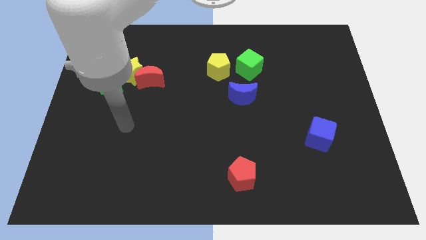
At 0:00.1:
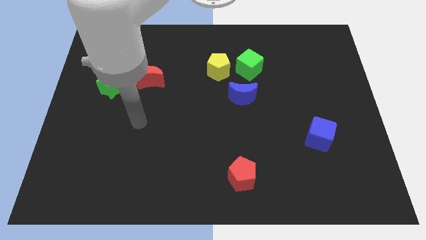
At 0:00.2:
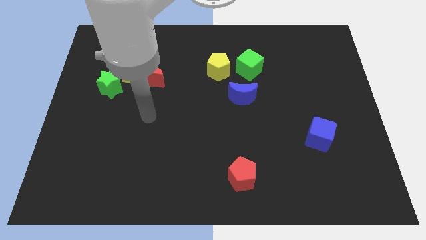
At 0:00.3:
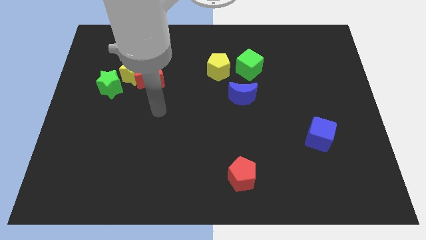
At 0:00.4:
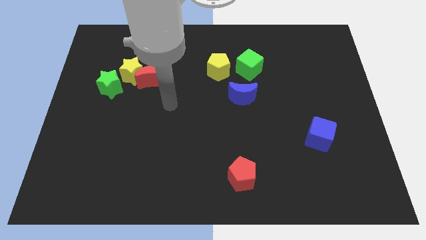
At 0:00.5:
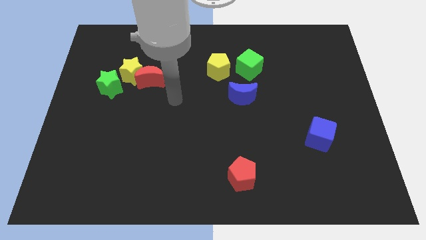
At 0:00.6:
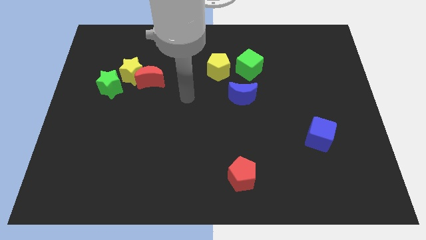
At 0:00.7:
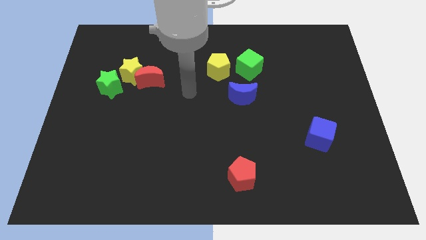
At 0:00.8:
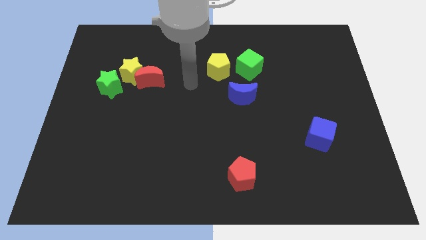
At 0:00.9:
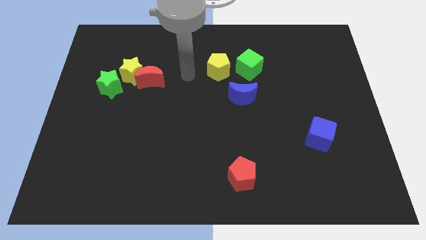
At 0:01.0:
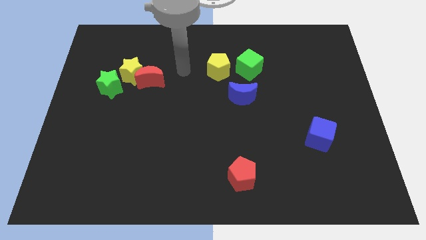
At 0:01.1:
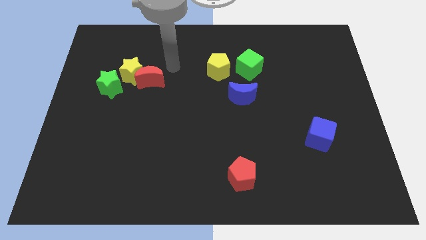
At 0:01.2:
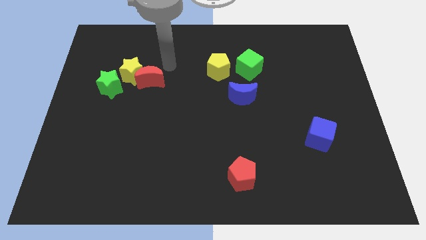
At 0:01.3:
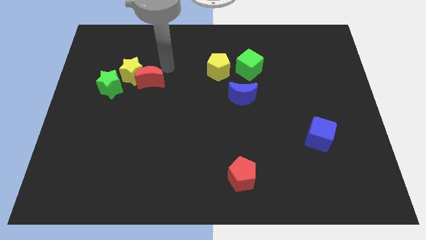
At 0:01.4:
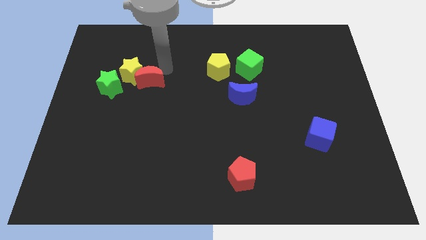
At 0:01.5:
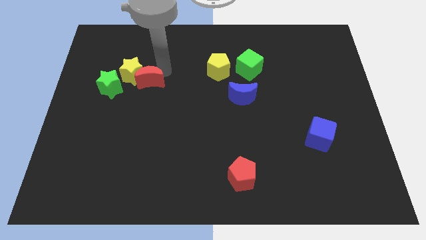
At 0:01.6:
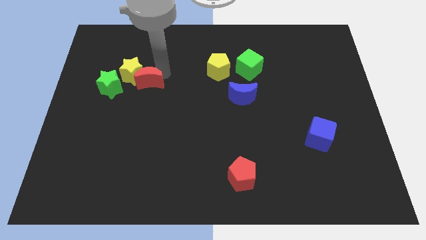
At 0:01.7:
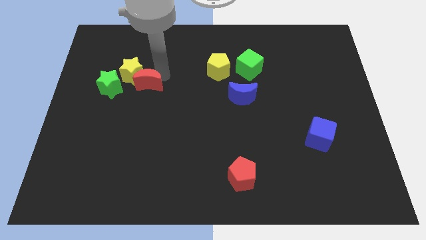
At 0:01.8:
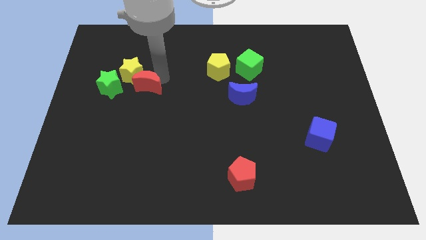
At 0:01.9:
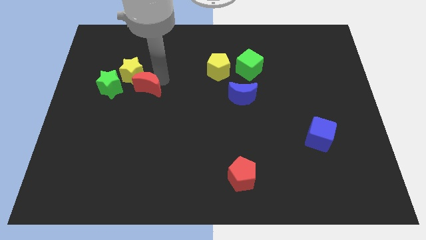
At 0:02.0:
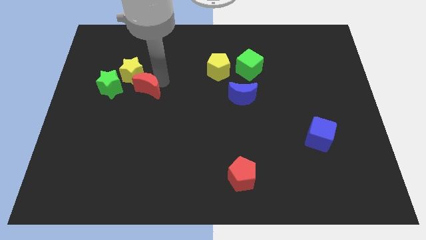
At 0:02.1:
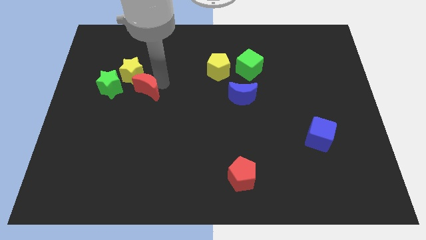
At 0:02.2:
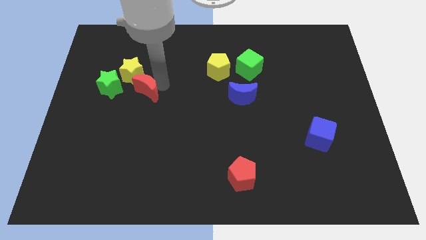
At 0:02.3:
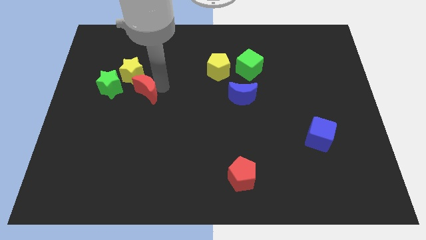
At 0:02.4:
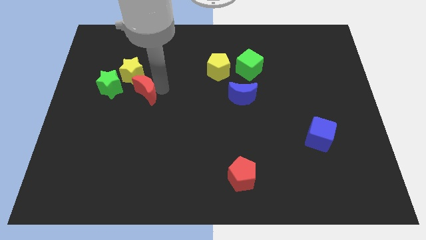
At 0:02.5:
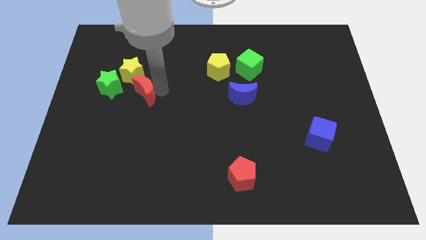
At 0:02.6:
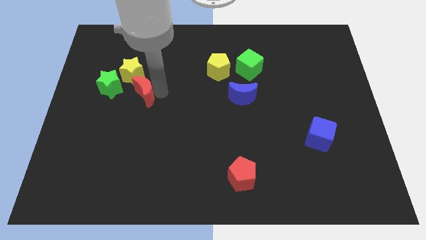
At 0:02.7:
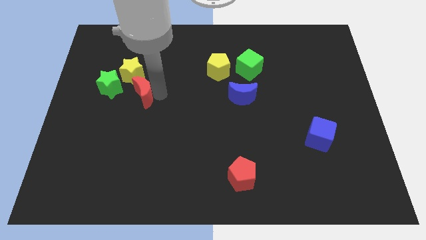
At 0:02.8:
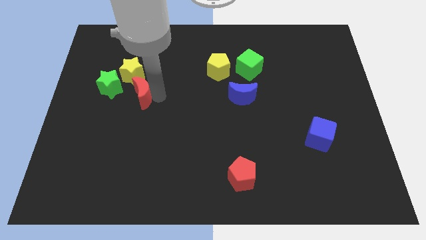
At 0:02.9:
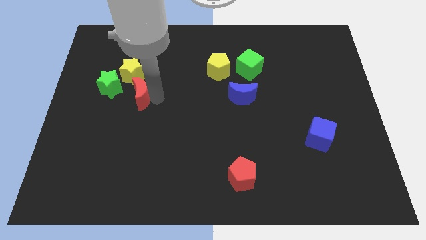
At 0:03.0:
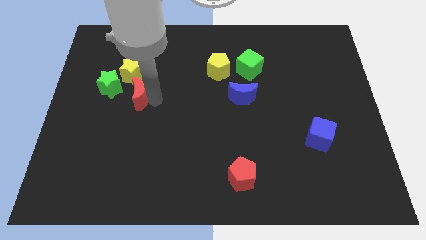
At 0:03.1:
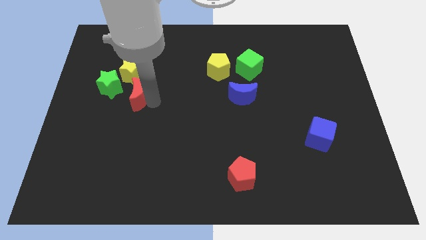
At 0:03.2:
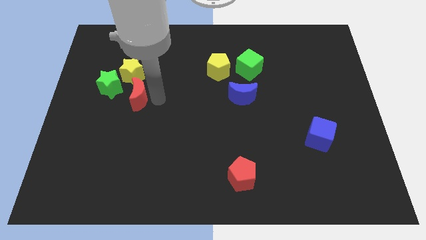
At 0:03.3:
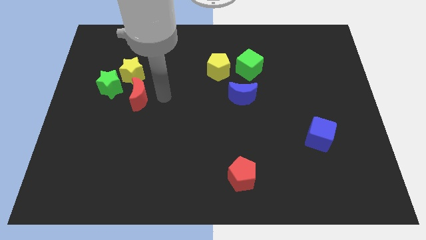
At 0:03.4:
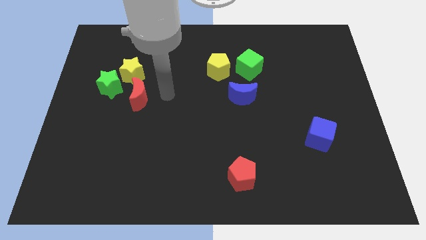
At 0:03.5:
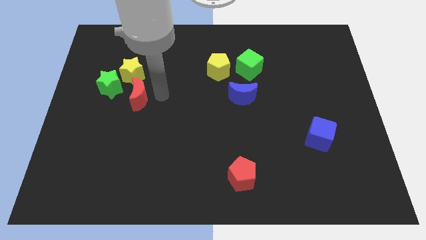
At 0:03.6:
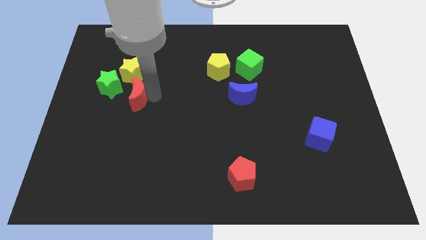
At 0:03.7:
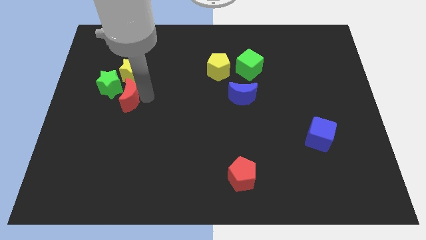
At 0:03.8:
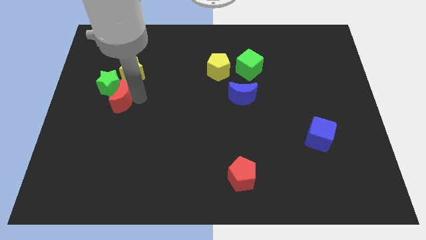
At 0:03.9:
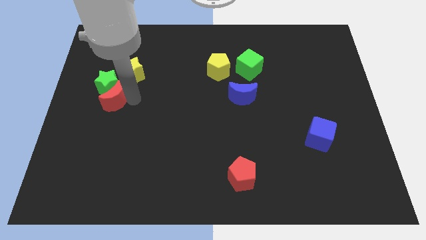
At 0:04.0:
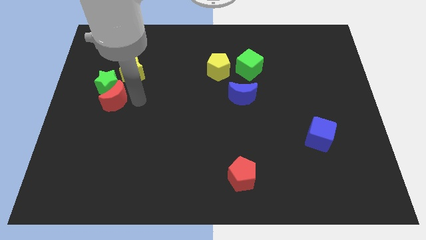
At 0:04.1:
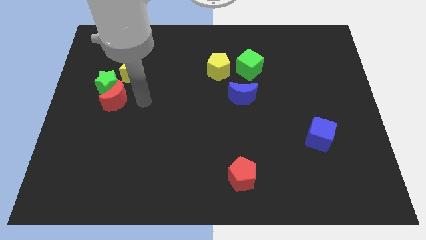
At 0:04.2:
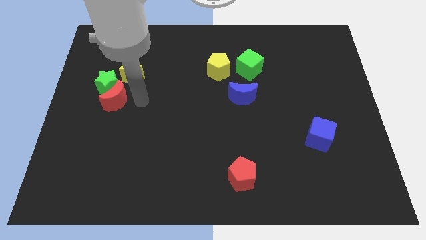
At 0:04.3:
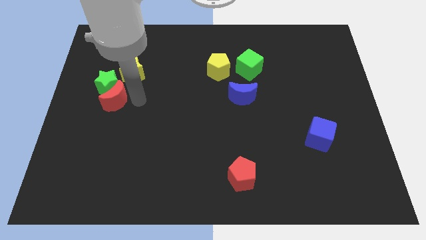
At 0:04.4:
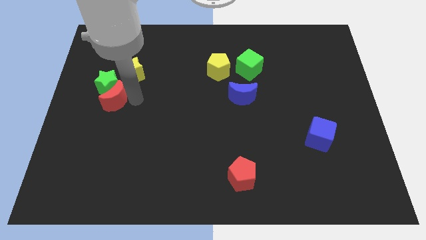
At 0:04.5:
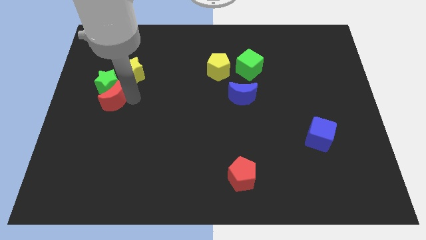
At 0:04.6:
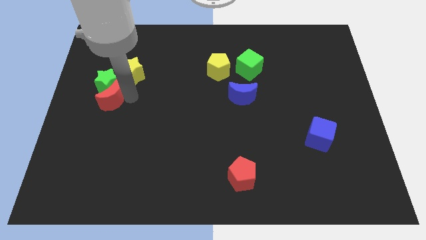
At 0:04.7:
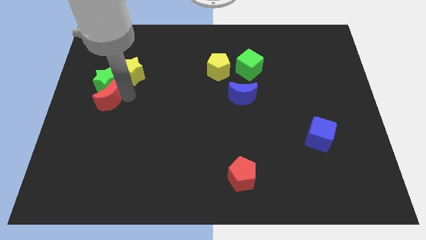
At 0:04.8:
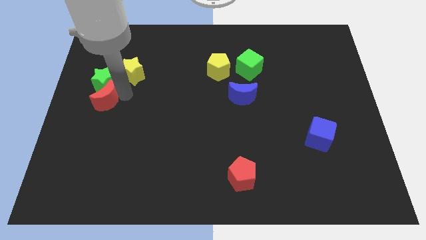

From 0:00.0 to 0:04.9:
slide the red moon to the center left

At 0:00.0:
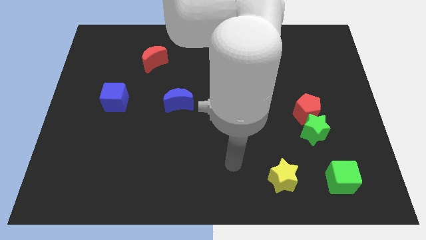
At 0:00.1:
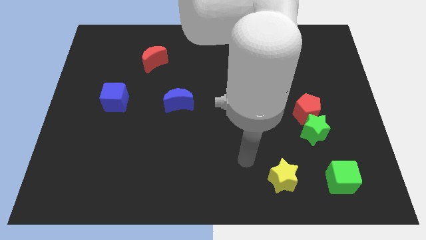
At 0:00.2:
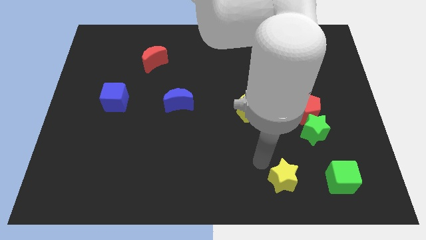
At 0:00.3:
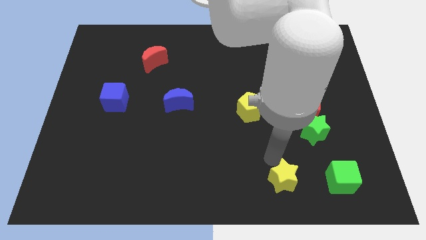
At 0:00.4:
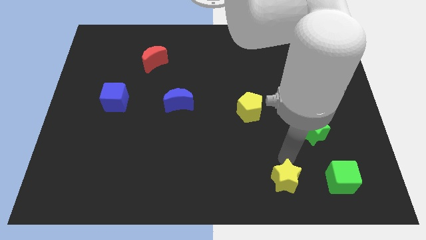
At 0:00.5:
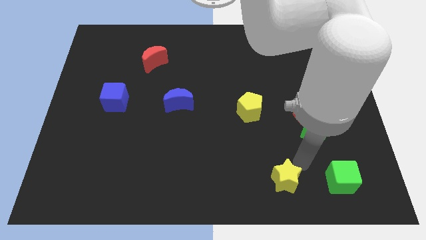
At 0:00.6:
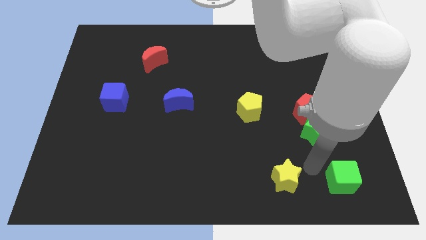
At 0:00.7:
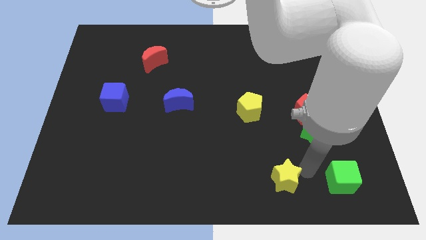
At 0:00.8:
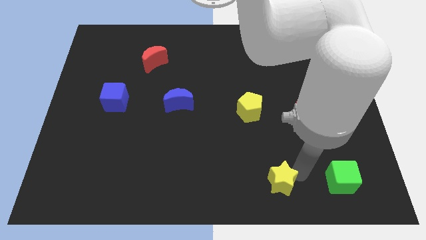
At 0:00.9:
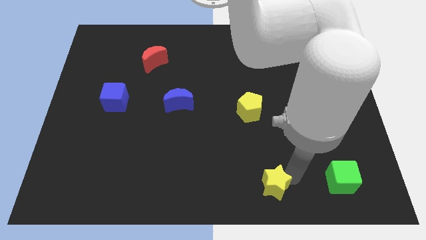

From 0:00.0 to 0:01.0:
push the yellow star to the bottom side
